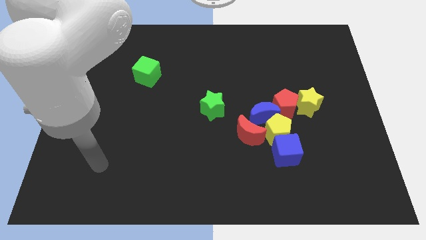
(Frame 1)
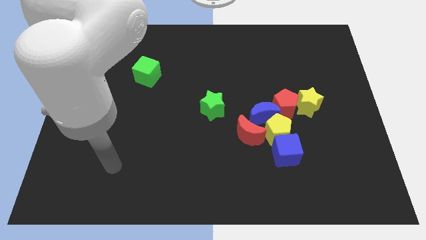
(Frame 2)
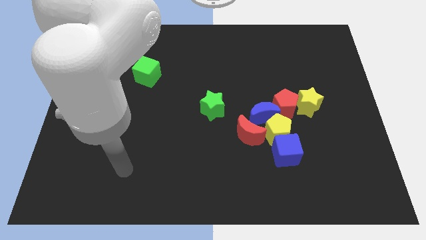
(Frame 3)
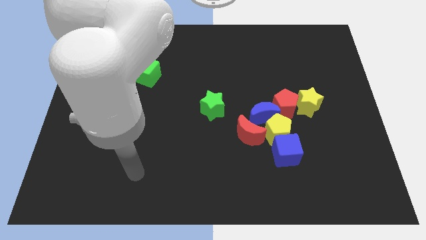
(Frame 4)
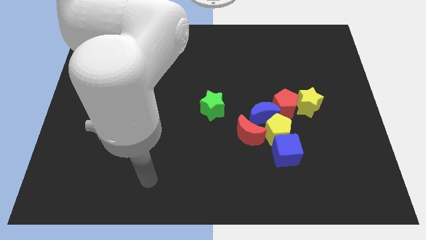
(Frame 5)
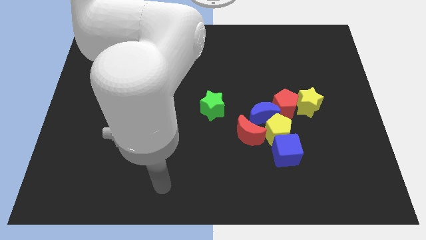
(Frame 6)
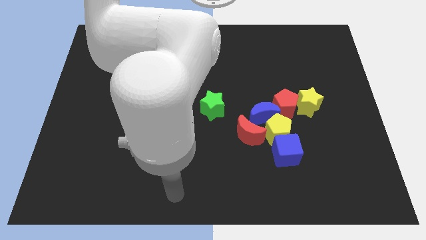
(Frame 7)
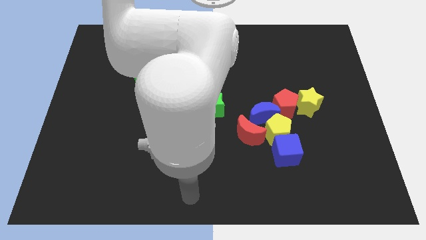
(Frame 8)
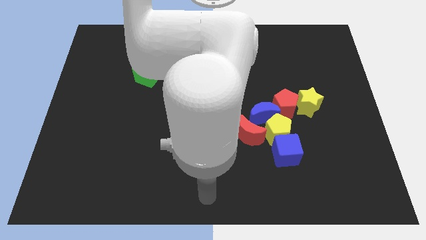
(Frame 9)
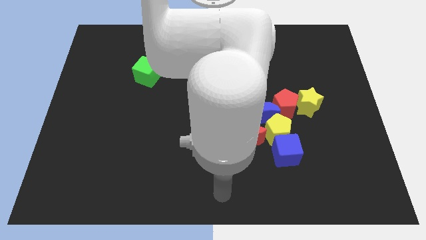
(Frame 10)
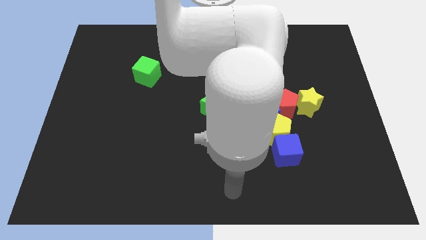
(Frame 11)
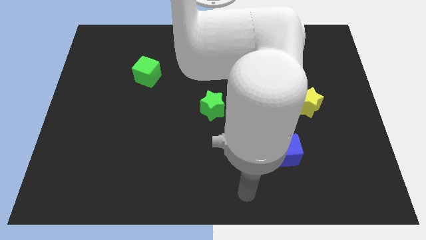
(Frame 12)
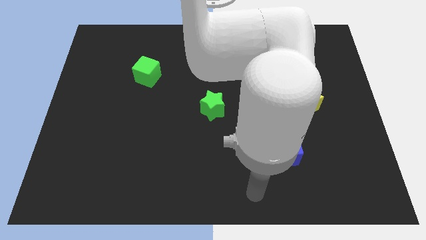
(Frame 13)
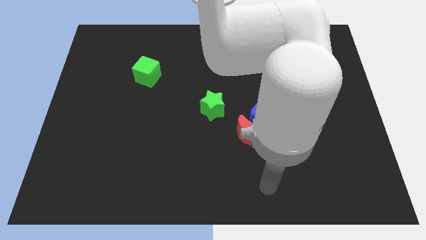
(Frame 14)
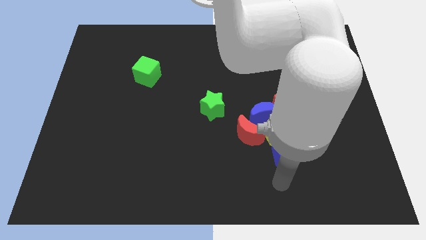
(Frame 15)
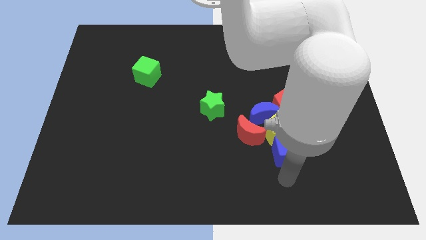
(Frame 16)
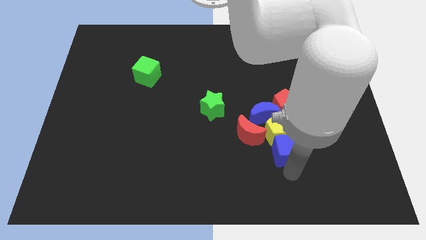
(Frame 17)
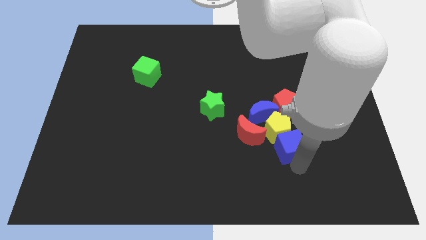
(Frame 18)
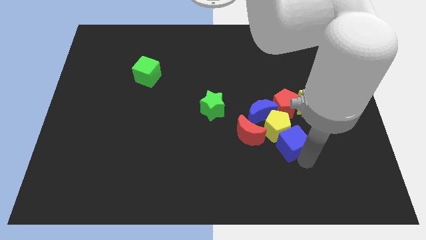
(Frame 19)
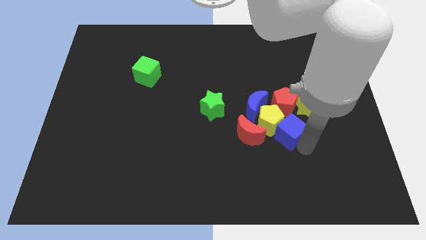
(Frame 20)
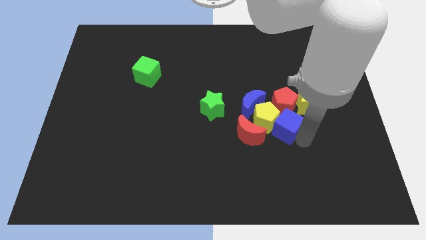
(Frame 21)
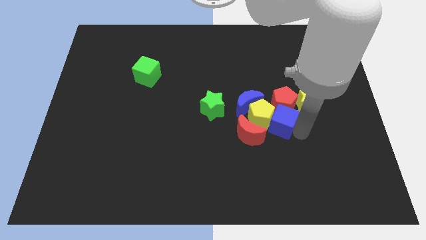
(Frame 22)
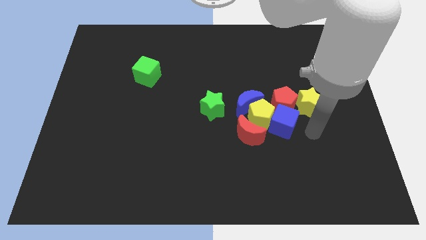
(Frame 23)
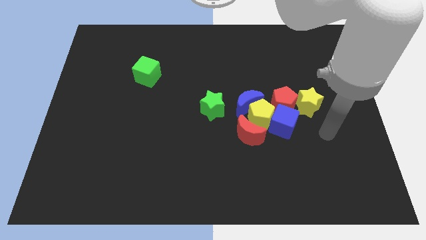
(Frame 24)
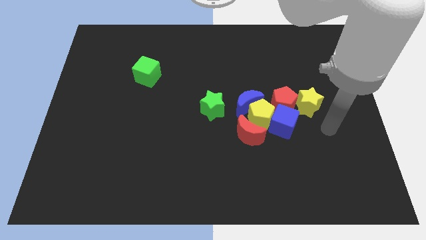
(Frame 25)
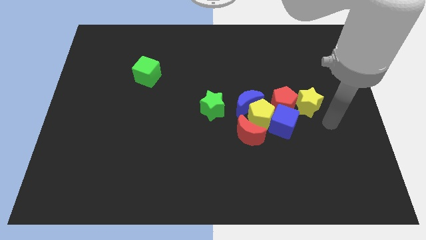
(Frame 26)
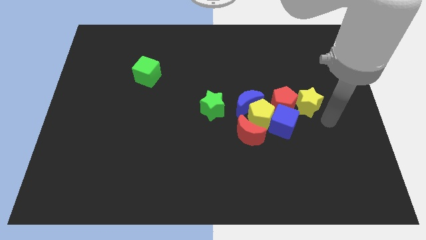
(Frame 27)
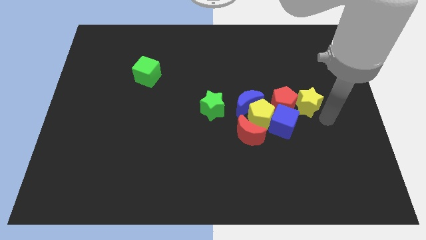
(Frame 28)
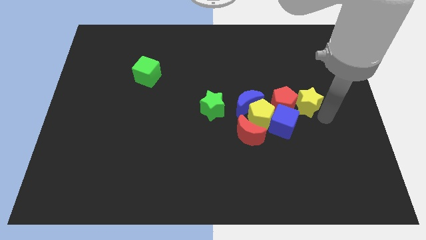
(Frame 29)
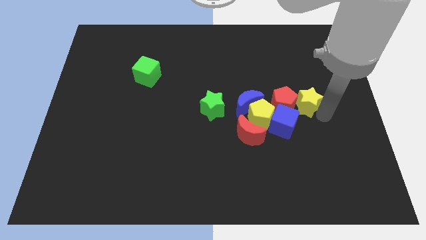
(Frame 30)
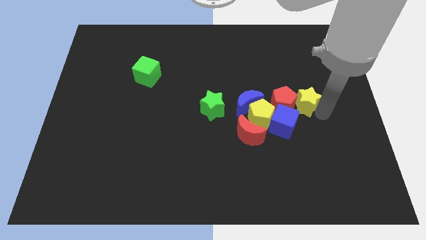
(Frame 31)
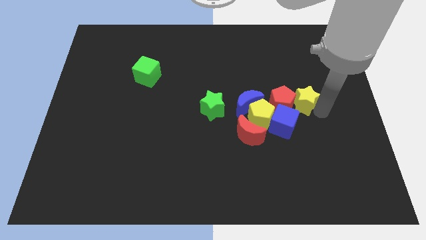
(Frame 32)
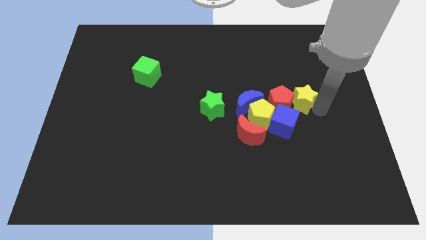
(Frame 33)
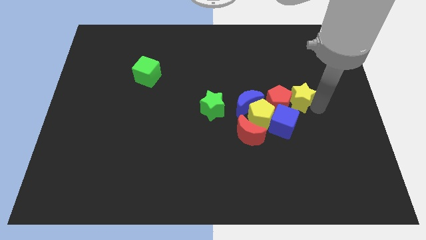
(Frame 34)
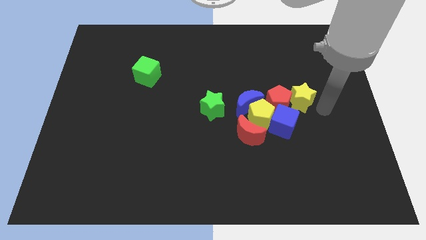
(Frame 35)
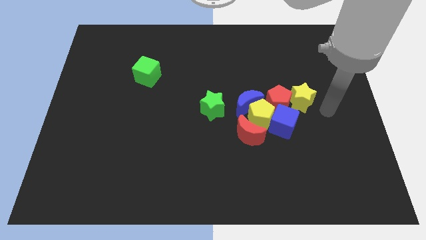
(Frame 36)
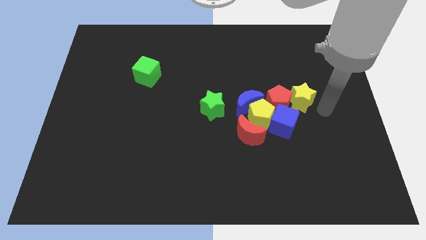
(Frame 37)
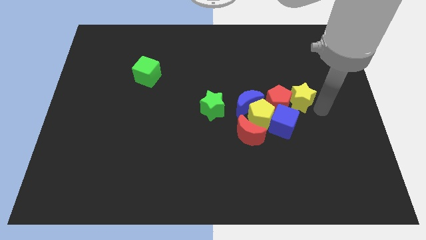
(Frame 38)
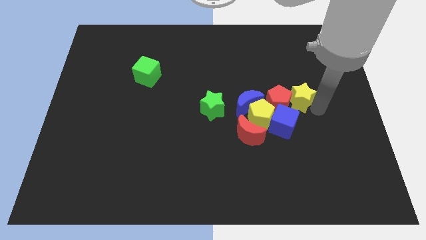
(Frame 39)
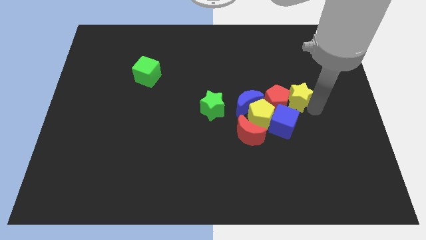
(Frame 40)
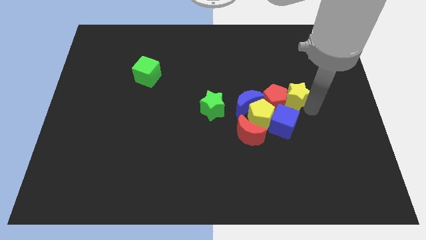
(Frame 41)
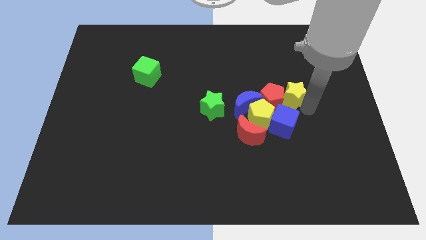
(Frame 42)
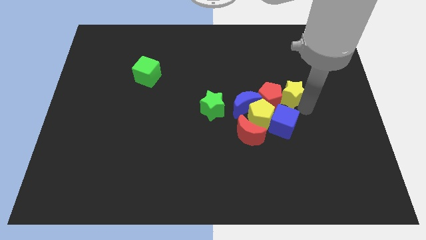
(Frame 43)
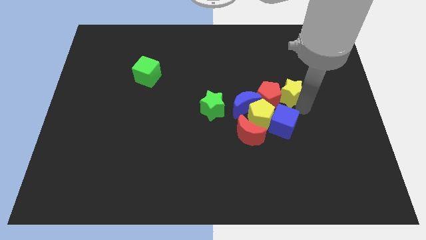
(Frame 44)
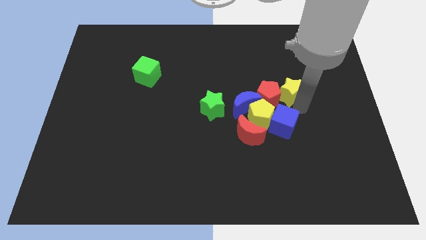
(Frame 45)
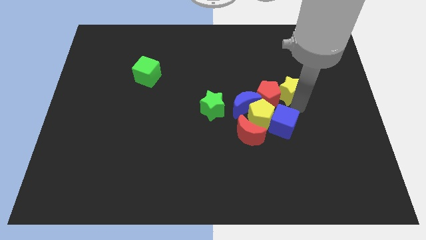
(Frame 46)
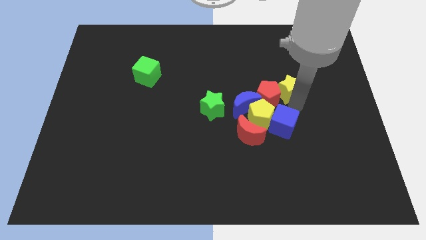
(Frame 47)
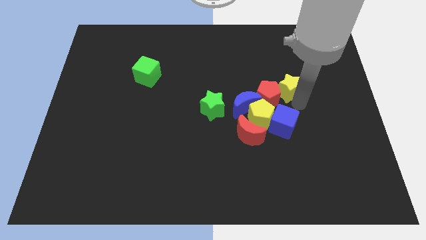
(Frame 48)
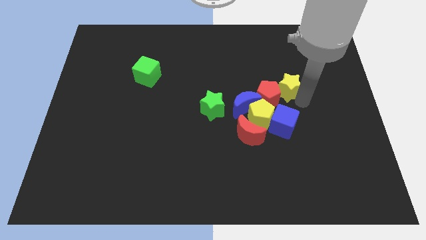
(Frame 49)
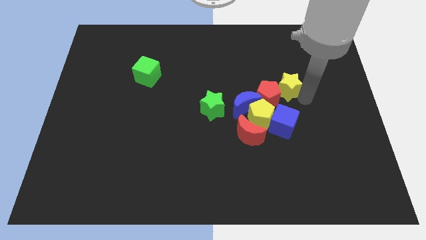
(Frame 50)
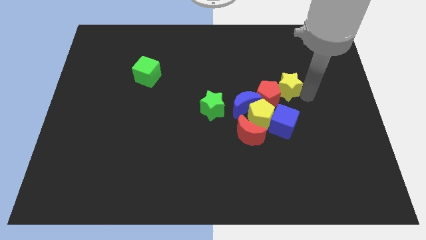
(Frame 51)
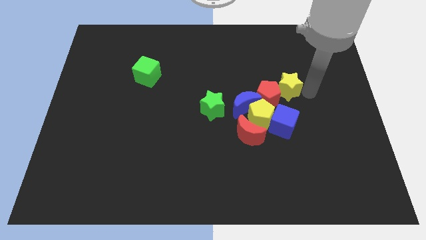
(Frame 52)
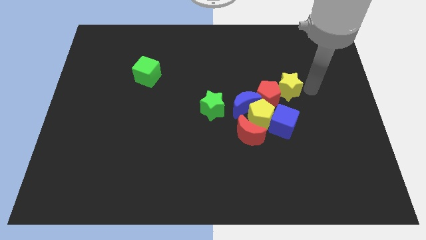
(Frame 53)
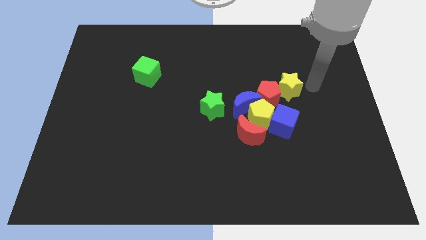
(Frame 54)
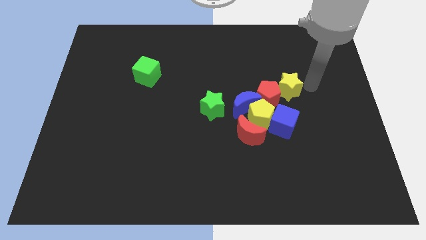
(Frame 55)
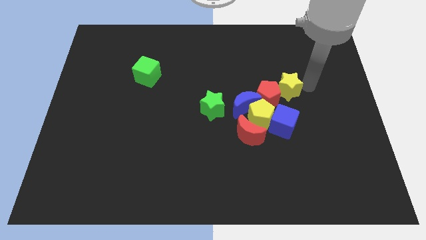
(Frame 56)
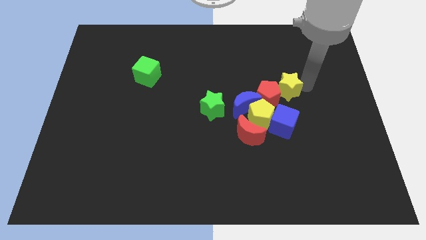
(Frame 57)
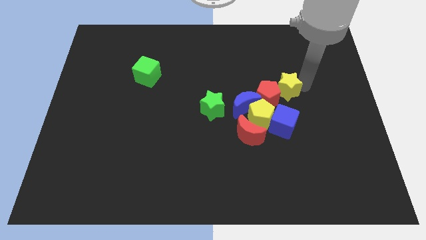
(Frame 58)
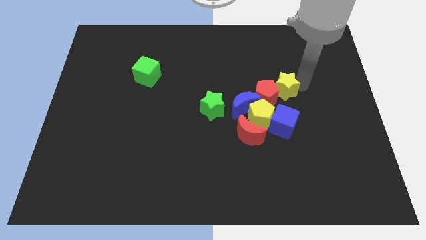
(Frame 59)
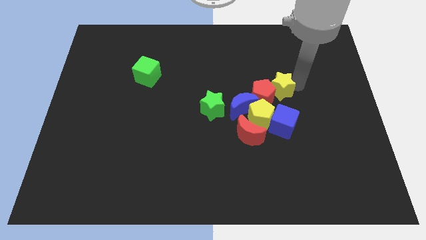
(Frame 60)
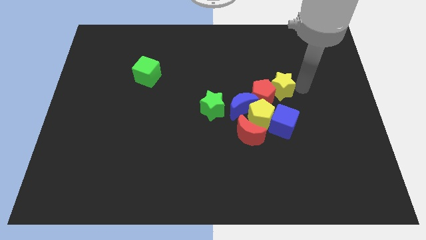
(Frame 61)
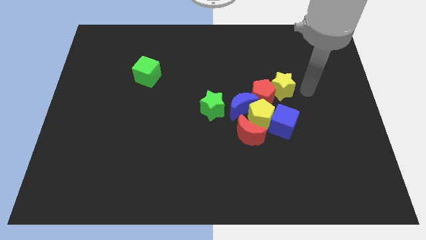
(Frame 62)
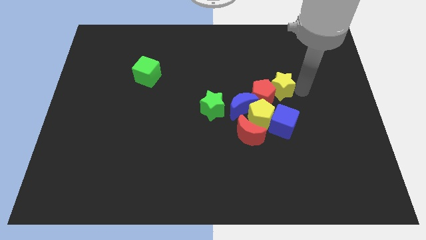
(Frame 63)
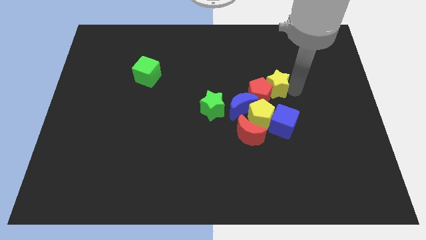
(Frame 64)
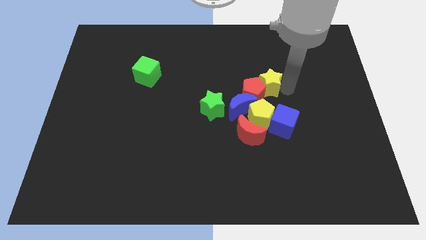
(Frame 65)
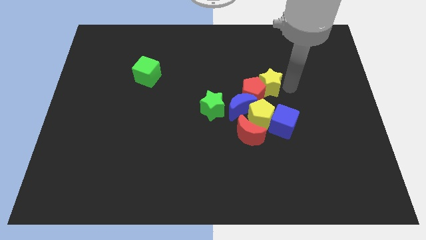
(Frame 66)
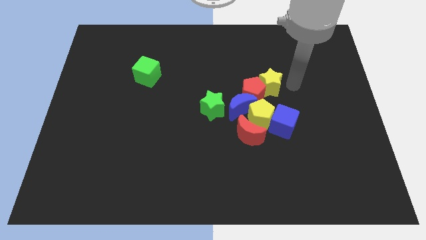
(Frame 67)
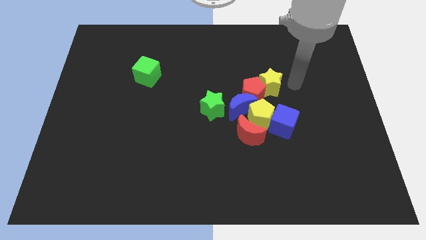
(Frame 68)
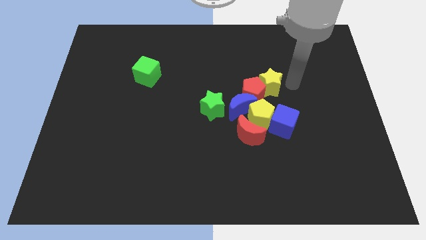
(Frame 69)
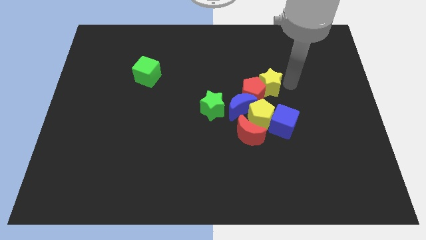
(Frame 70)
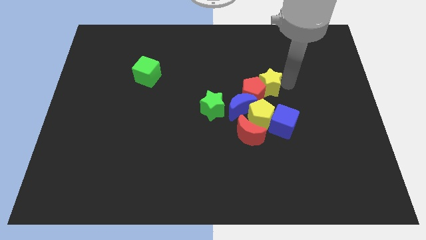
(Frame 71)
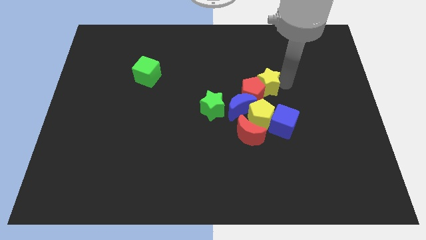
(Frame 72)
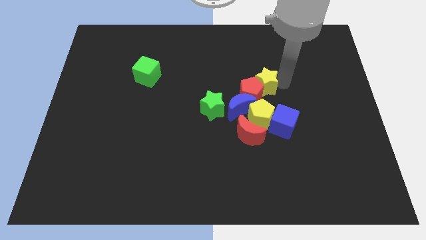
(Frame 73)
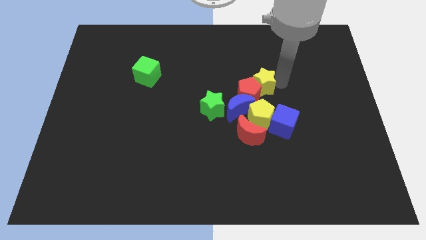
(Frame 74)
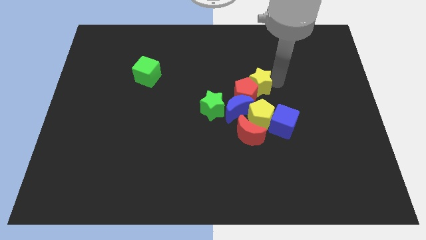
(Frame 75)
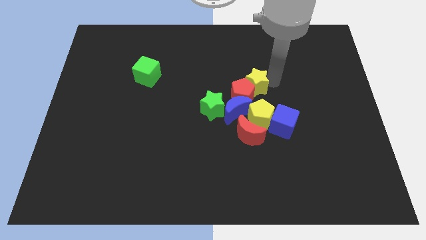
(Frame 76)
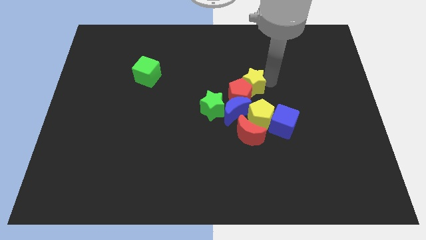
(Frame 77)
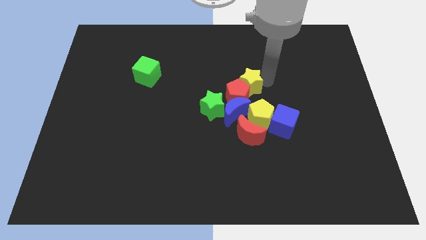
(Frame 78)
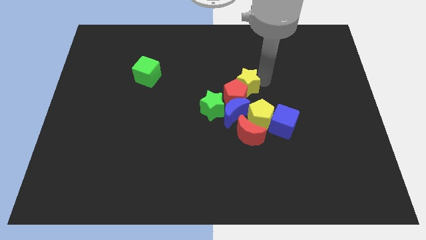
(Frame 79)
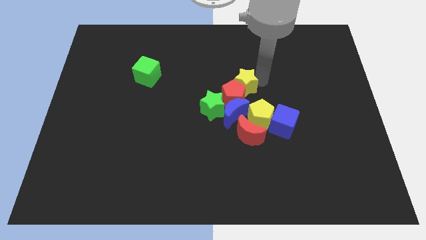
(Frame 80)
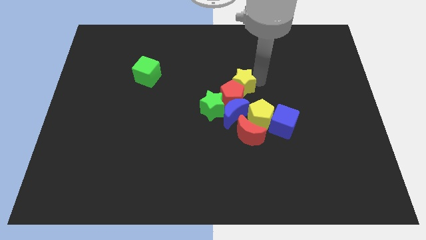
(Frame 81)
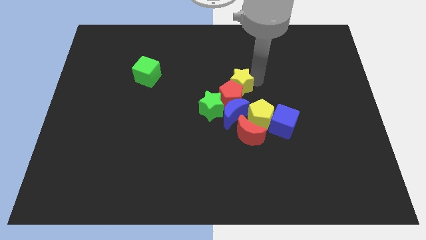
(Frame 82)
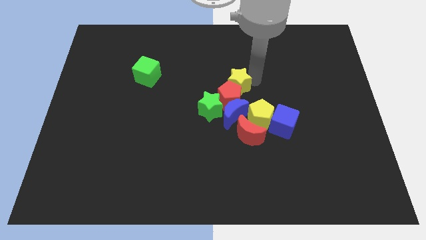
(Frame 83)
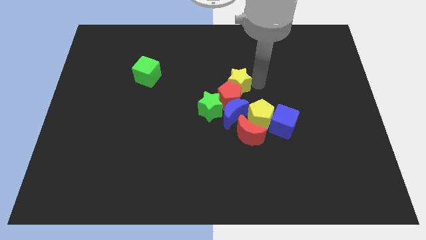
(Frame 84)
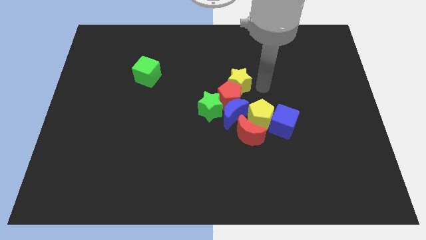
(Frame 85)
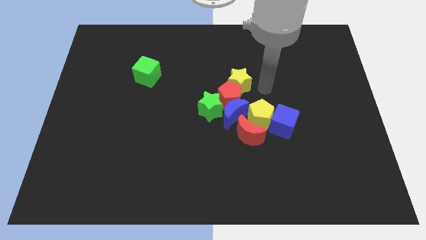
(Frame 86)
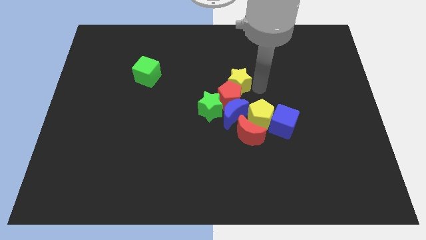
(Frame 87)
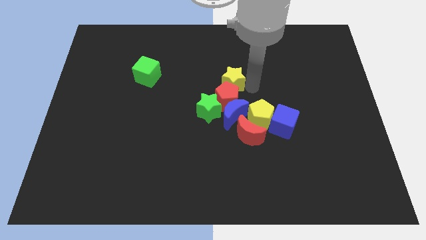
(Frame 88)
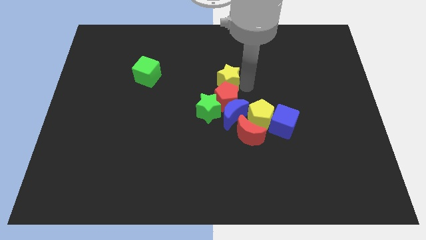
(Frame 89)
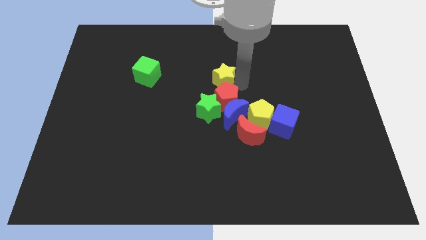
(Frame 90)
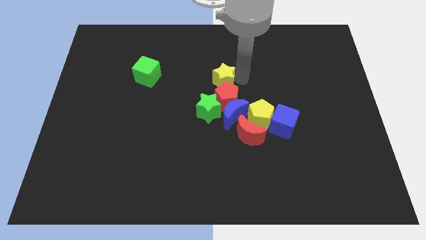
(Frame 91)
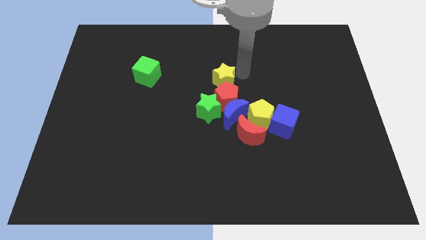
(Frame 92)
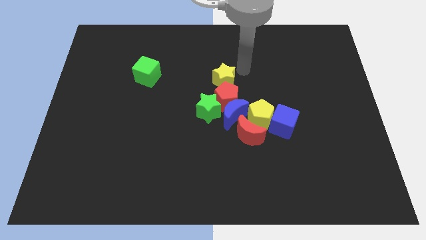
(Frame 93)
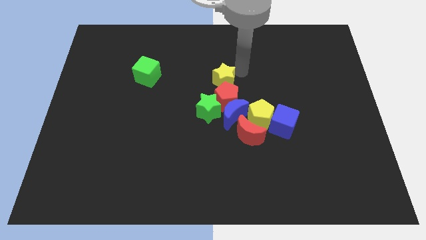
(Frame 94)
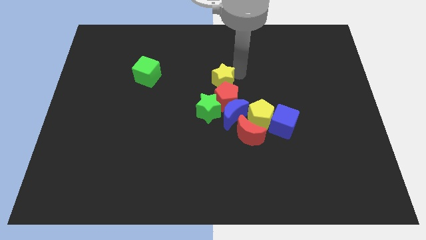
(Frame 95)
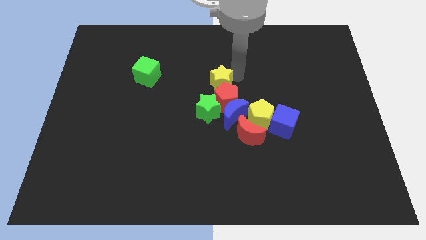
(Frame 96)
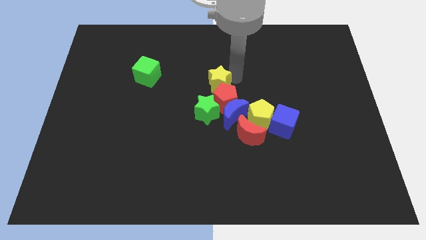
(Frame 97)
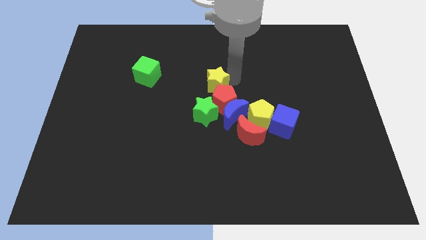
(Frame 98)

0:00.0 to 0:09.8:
slide the yellow star to the left
